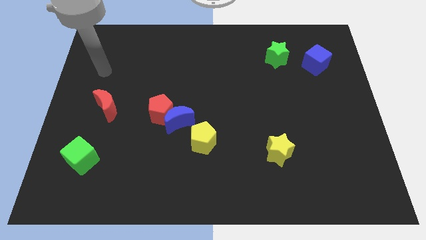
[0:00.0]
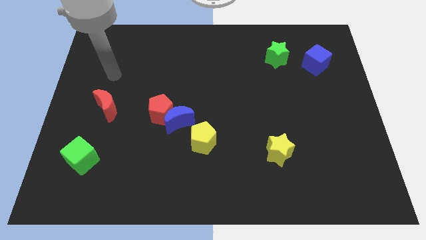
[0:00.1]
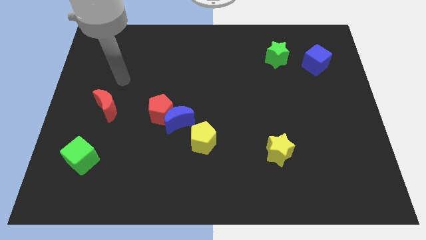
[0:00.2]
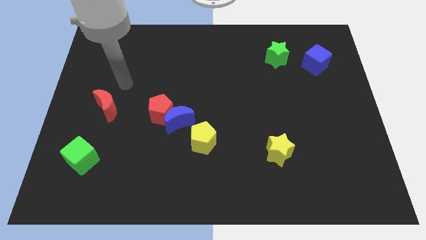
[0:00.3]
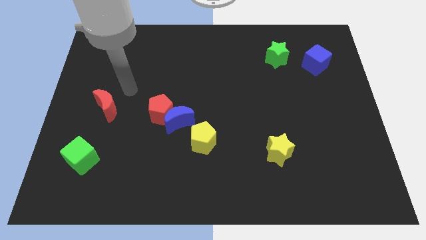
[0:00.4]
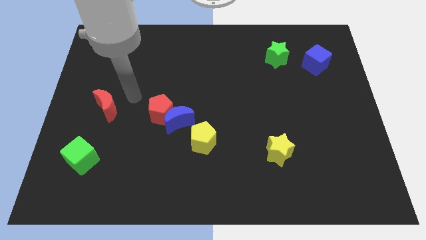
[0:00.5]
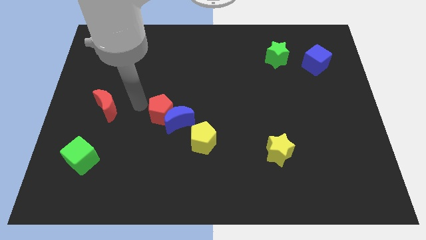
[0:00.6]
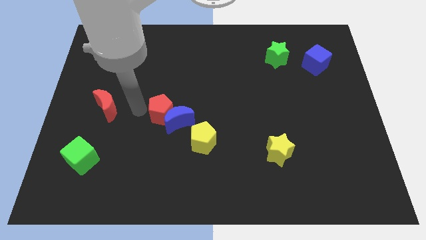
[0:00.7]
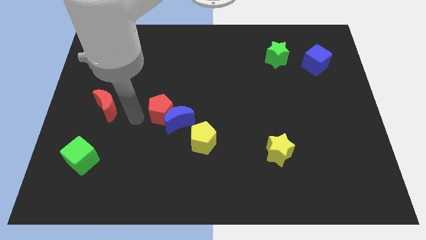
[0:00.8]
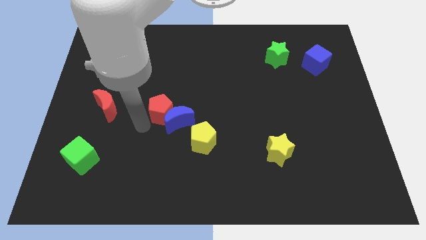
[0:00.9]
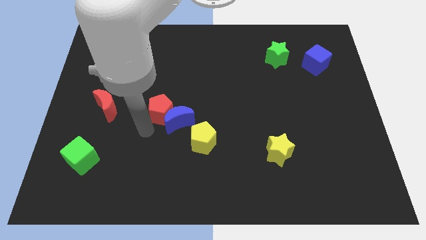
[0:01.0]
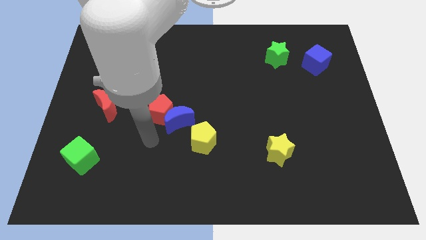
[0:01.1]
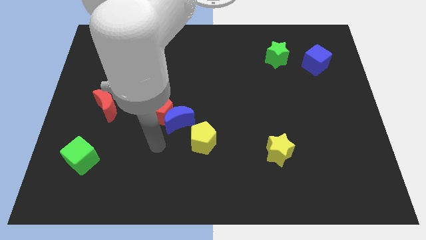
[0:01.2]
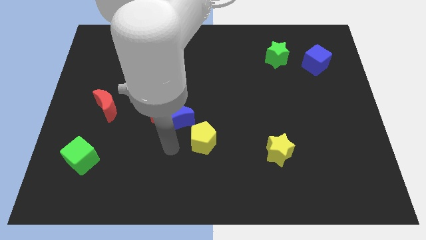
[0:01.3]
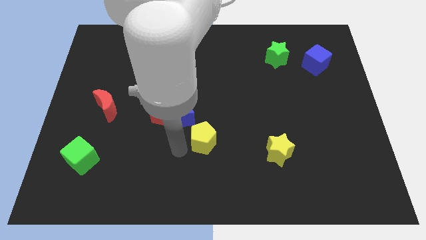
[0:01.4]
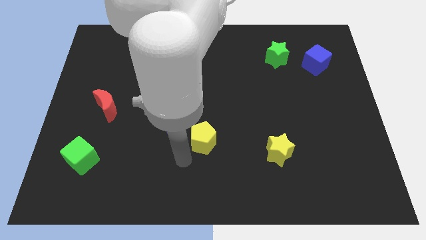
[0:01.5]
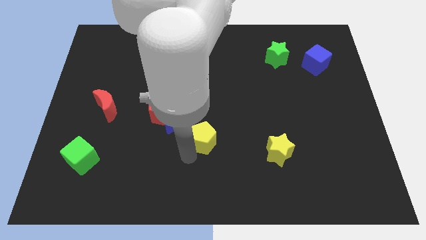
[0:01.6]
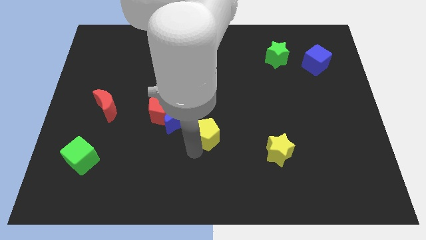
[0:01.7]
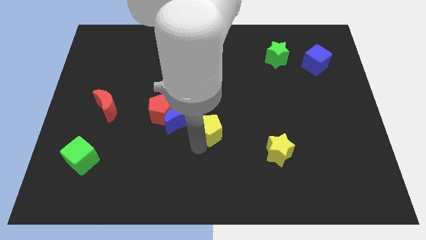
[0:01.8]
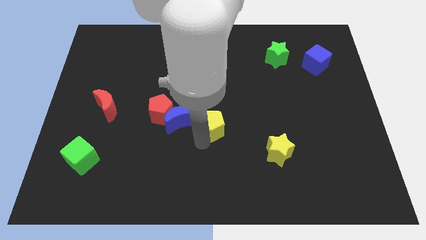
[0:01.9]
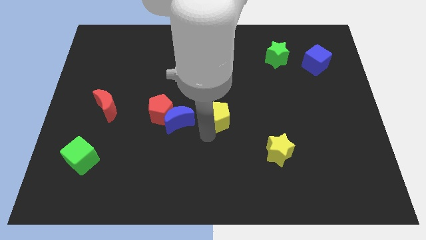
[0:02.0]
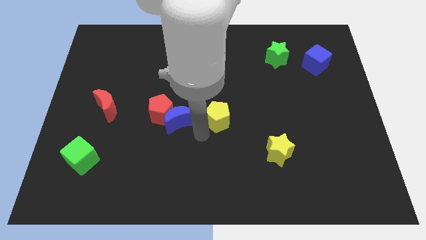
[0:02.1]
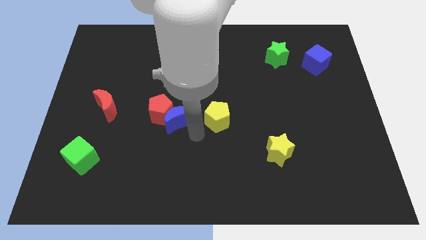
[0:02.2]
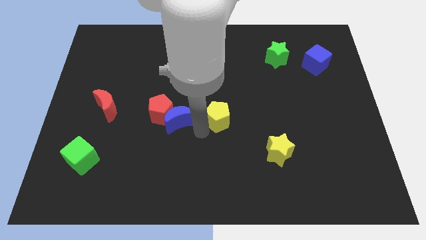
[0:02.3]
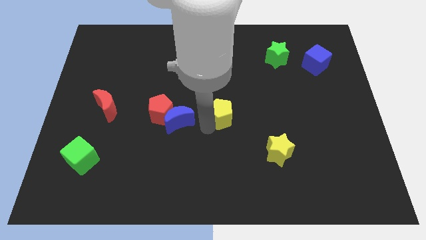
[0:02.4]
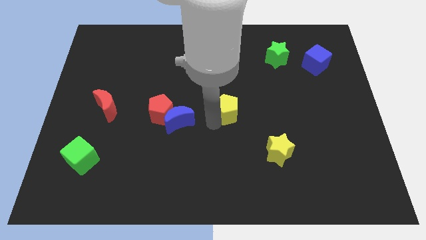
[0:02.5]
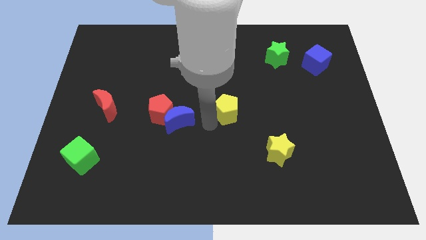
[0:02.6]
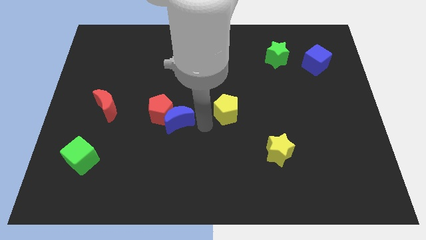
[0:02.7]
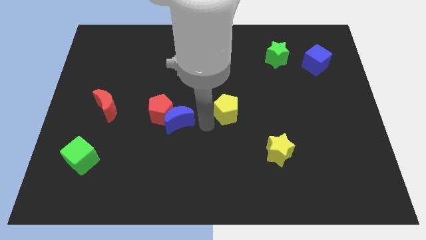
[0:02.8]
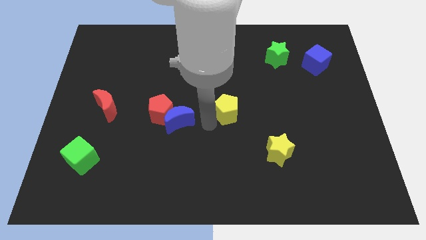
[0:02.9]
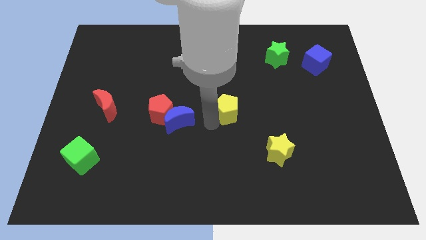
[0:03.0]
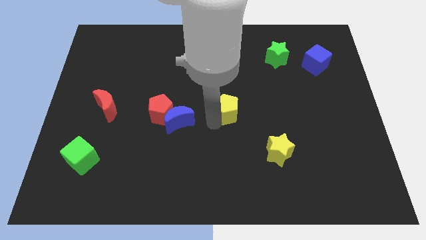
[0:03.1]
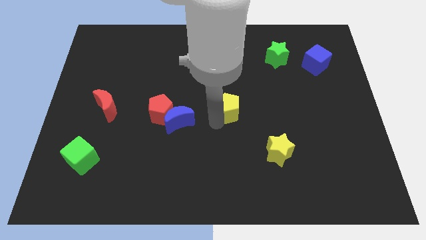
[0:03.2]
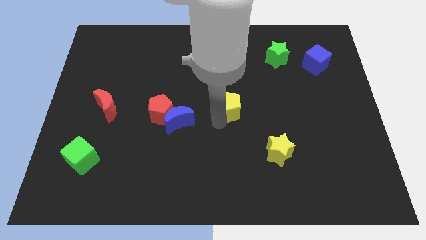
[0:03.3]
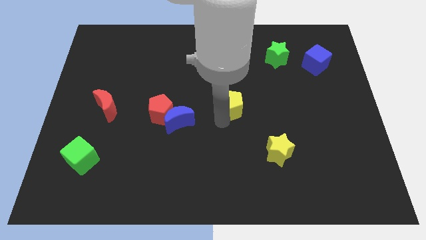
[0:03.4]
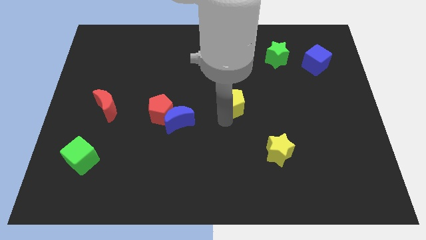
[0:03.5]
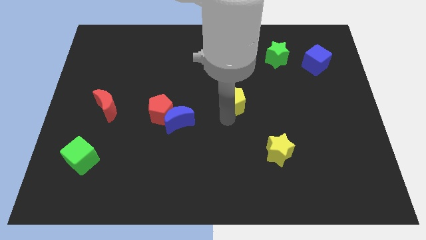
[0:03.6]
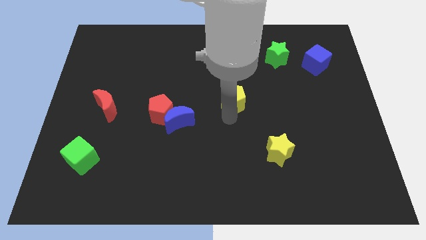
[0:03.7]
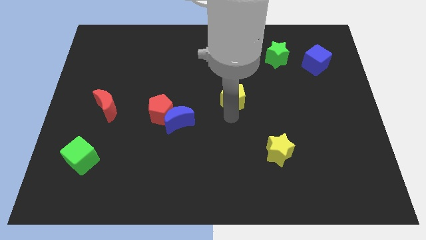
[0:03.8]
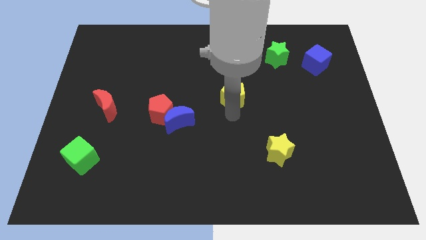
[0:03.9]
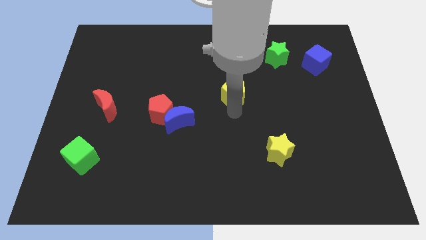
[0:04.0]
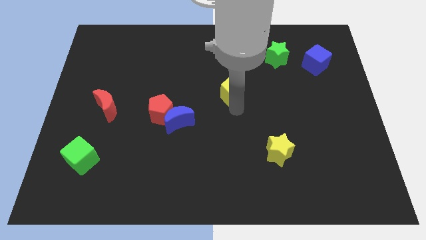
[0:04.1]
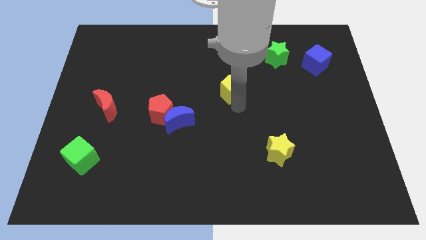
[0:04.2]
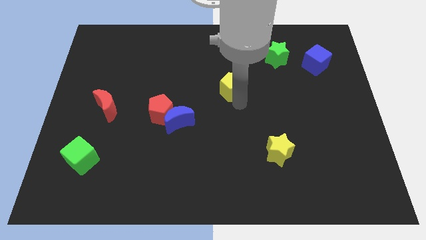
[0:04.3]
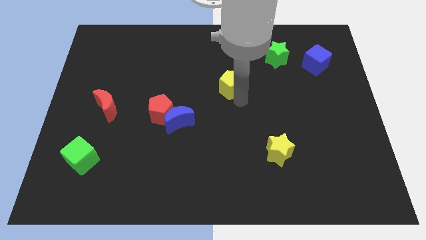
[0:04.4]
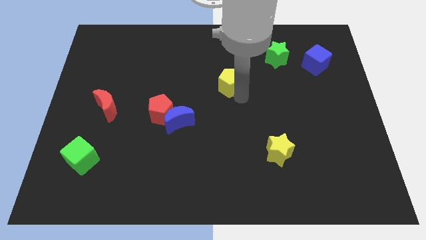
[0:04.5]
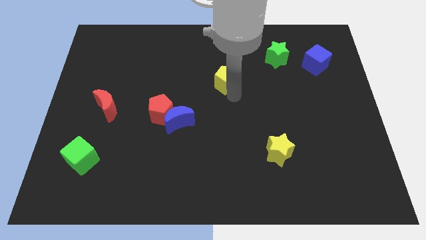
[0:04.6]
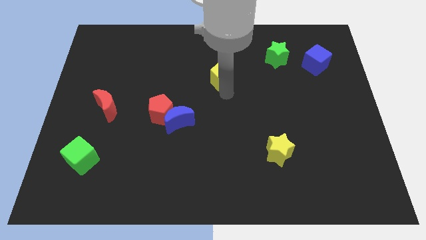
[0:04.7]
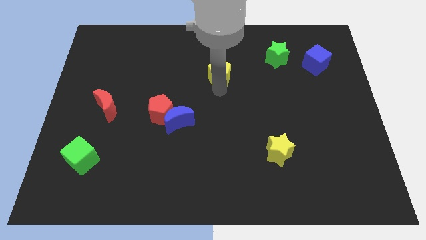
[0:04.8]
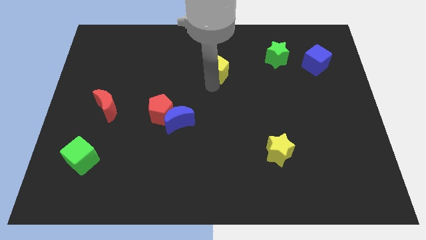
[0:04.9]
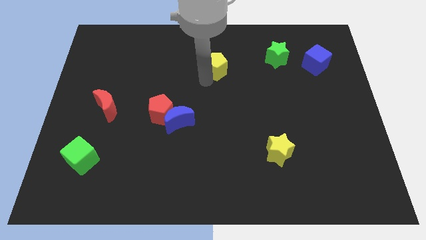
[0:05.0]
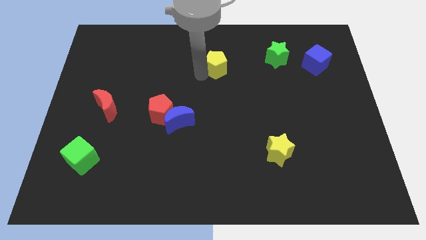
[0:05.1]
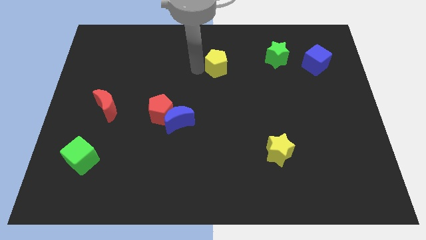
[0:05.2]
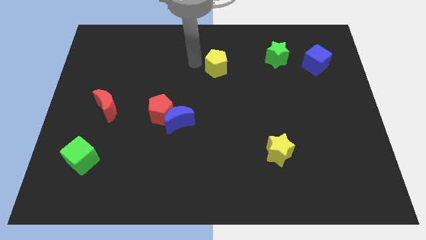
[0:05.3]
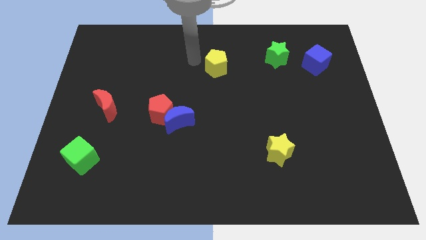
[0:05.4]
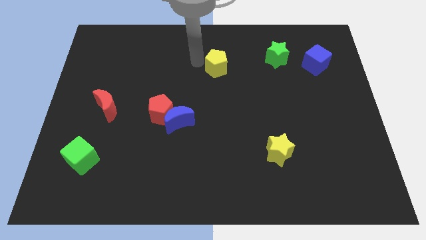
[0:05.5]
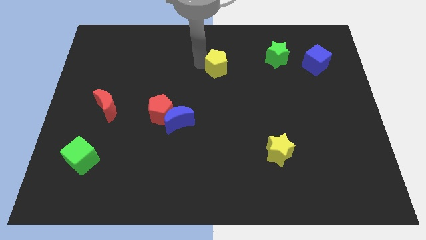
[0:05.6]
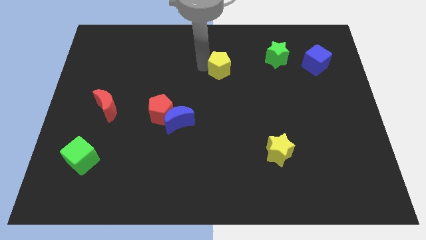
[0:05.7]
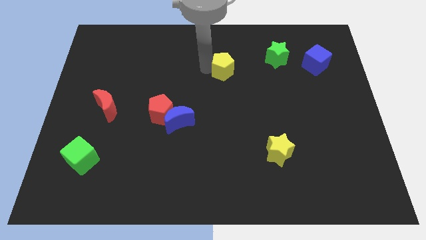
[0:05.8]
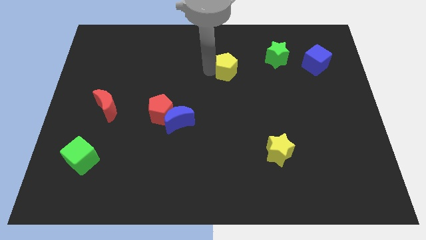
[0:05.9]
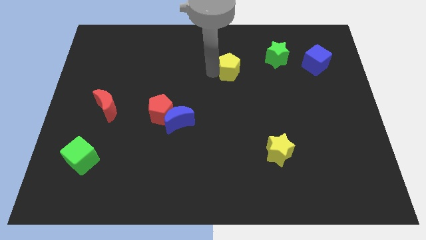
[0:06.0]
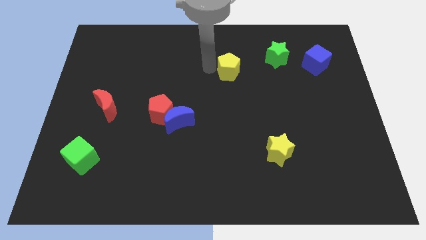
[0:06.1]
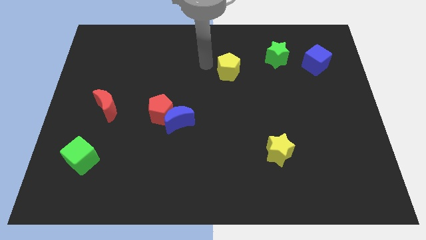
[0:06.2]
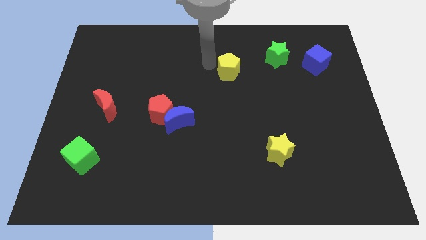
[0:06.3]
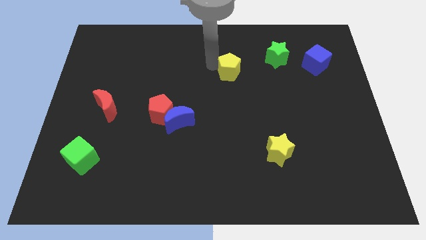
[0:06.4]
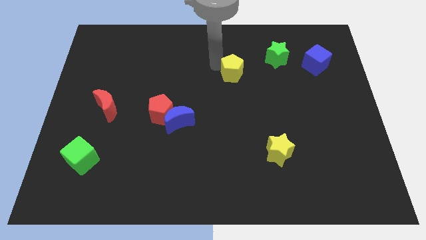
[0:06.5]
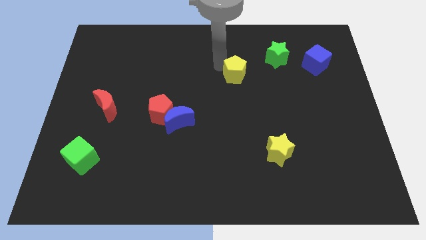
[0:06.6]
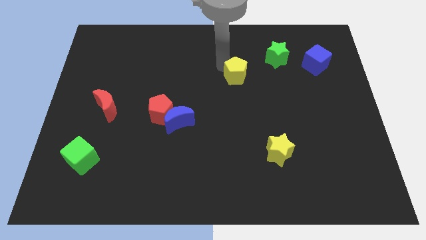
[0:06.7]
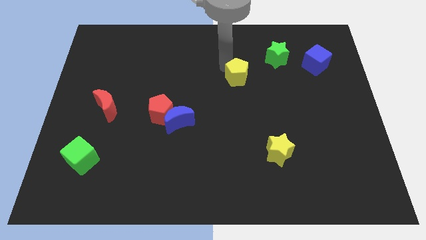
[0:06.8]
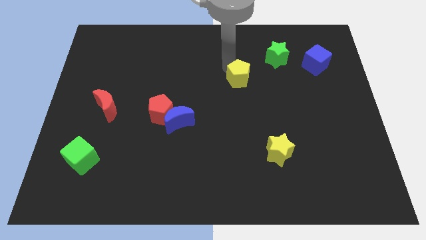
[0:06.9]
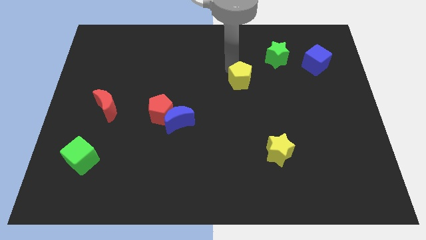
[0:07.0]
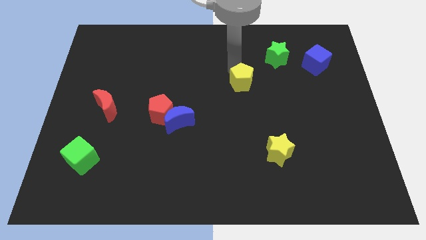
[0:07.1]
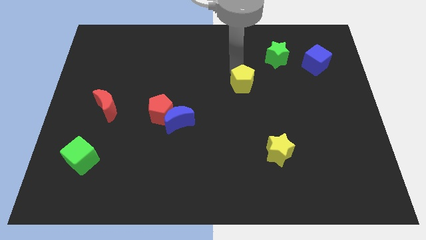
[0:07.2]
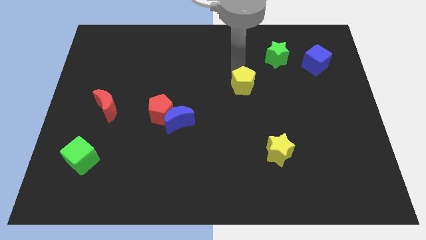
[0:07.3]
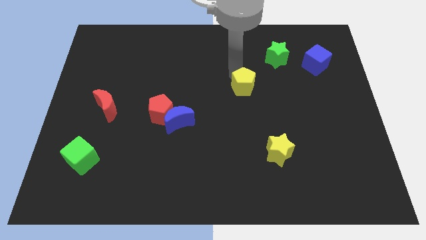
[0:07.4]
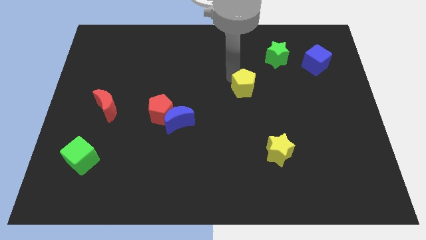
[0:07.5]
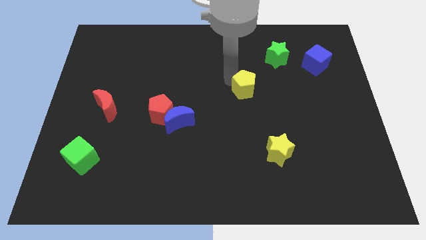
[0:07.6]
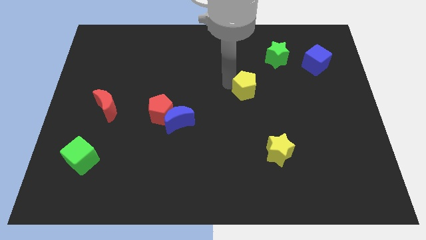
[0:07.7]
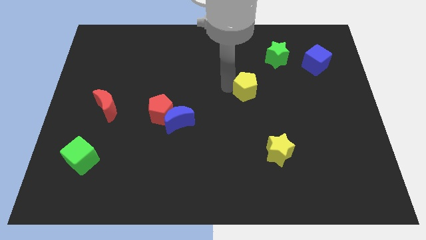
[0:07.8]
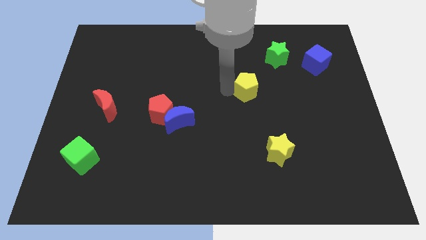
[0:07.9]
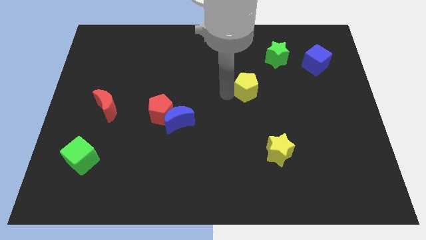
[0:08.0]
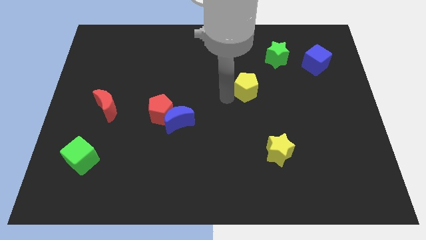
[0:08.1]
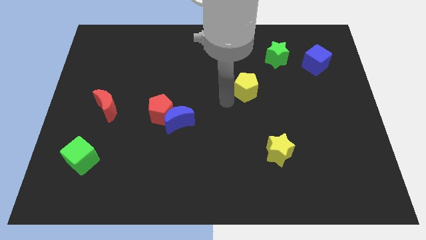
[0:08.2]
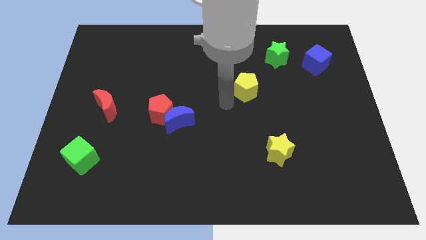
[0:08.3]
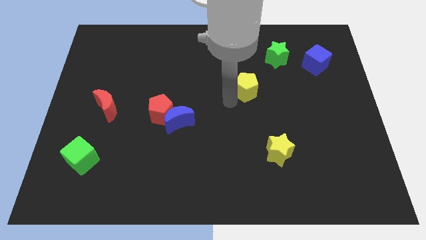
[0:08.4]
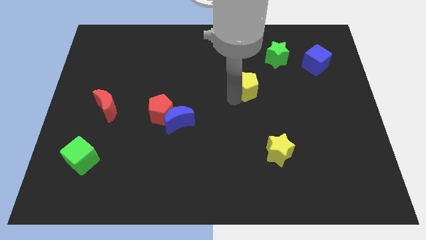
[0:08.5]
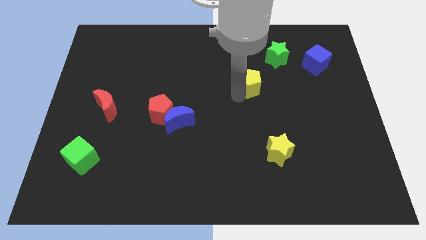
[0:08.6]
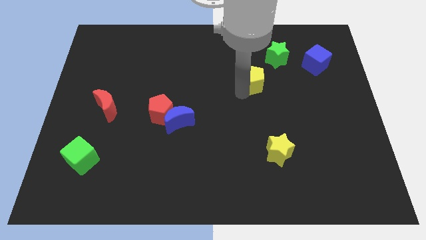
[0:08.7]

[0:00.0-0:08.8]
slide the yellow pentagon up and then right
